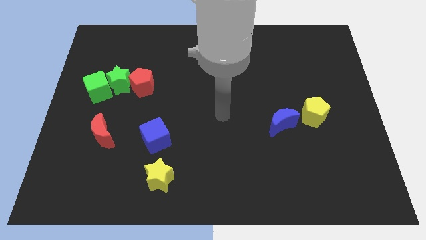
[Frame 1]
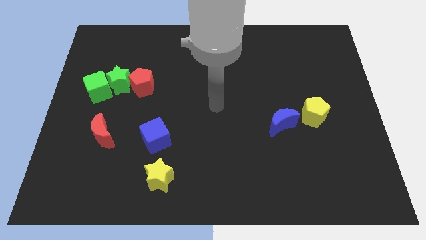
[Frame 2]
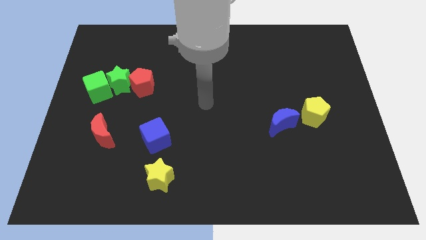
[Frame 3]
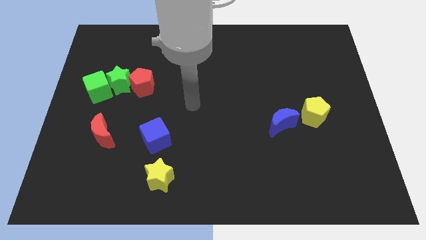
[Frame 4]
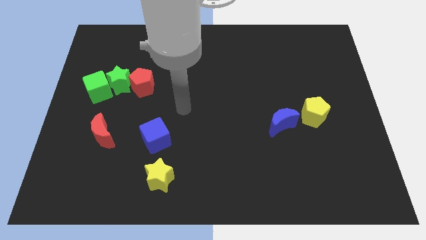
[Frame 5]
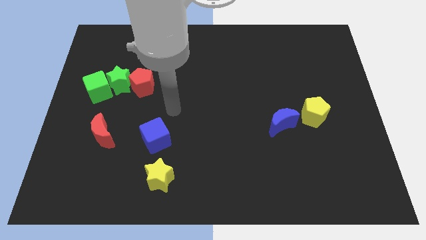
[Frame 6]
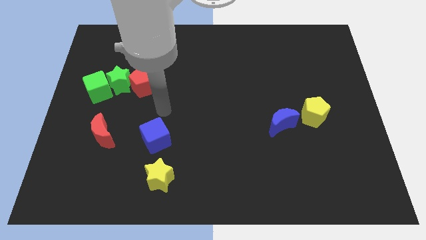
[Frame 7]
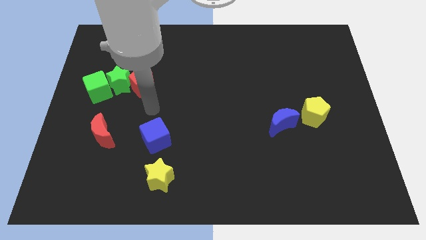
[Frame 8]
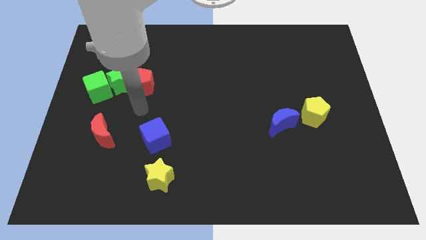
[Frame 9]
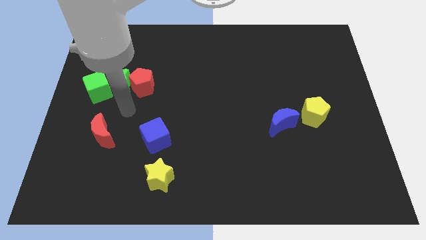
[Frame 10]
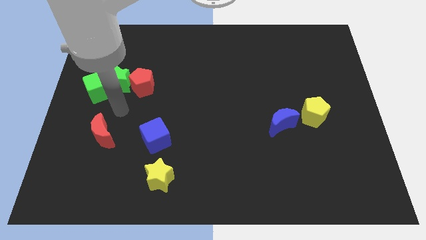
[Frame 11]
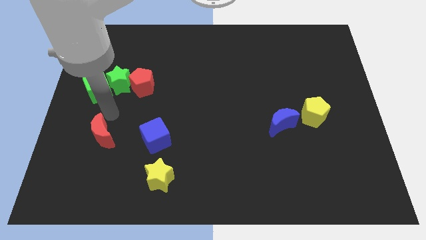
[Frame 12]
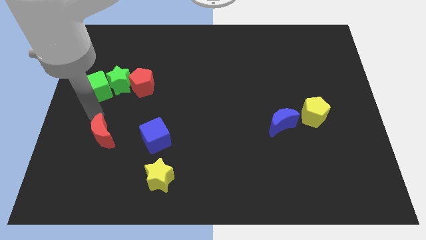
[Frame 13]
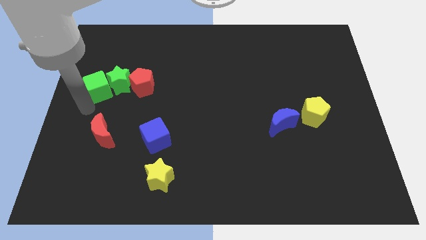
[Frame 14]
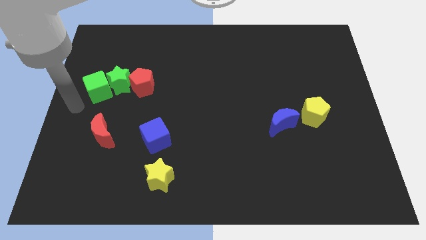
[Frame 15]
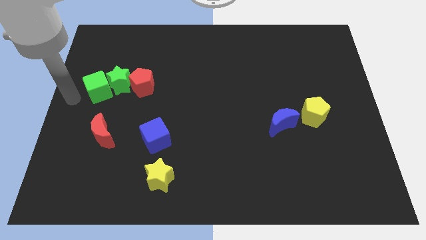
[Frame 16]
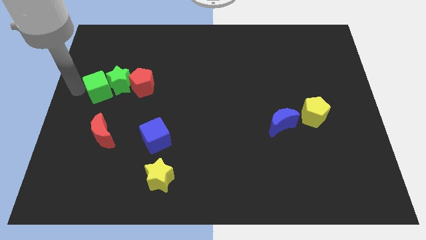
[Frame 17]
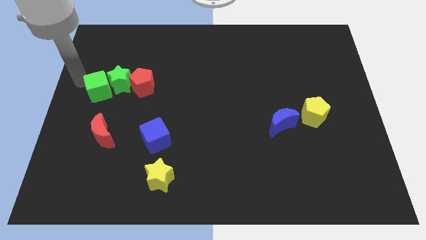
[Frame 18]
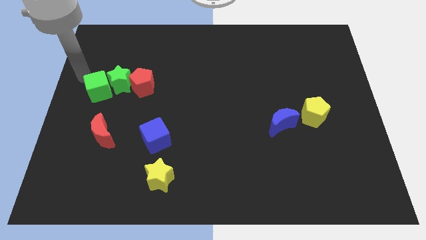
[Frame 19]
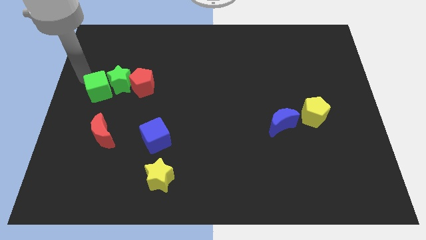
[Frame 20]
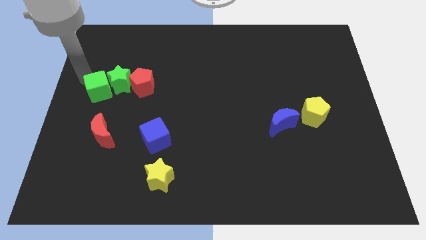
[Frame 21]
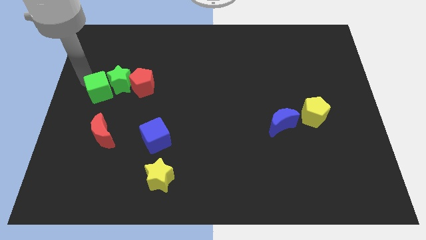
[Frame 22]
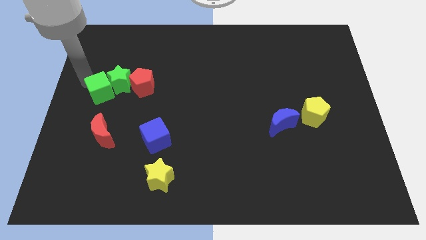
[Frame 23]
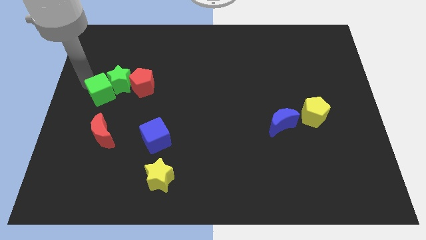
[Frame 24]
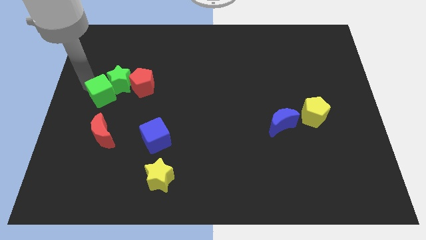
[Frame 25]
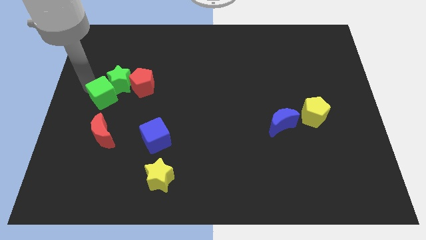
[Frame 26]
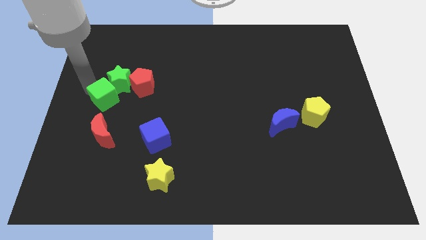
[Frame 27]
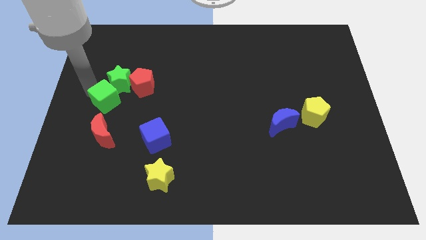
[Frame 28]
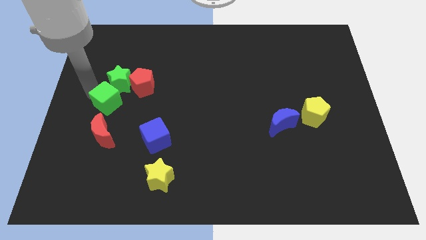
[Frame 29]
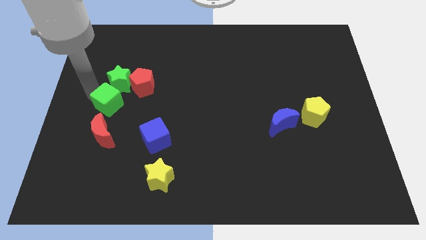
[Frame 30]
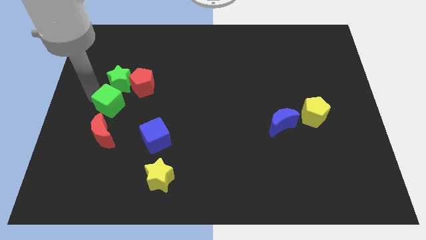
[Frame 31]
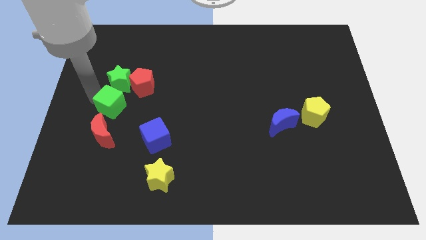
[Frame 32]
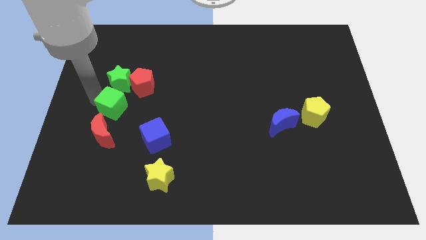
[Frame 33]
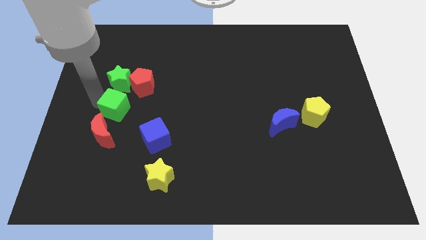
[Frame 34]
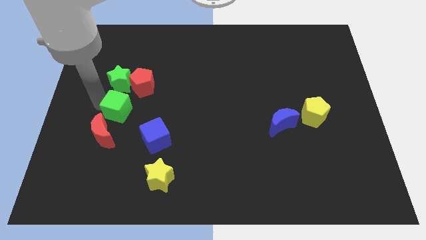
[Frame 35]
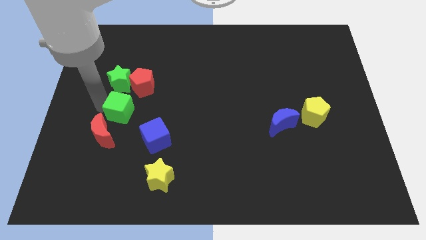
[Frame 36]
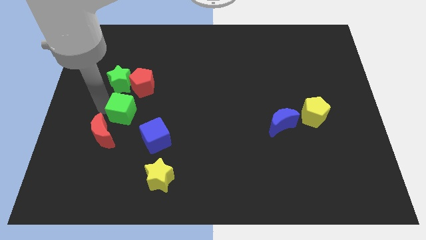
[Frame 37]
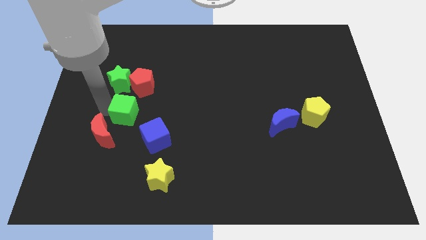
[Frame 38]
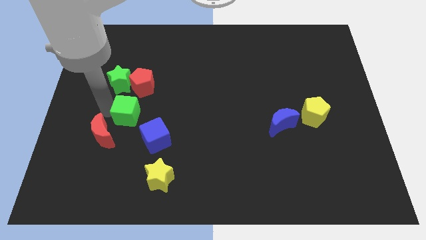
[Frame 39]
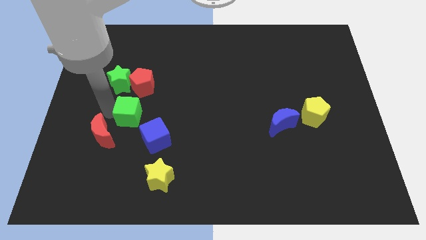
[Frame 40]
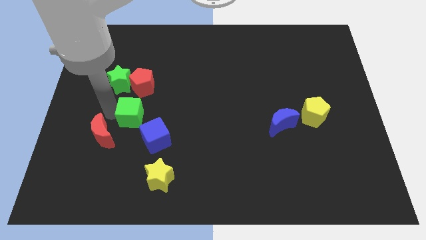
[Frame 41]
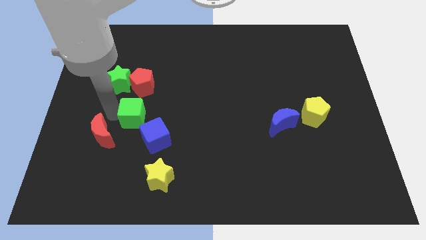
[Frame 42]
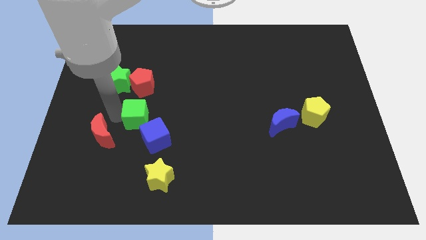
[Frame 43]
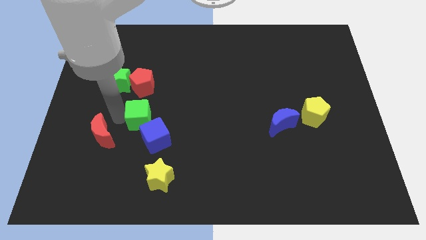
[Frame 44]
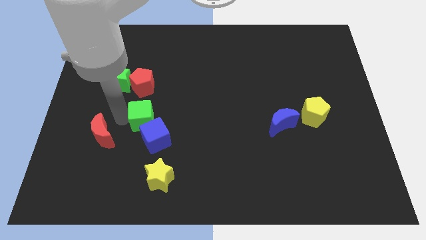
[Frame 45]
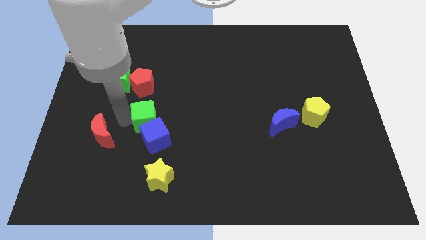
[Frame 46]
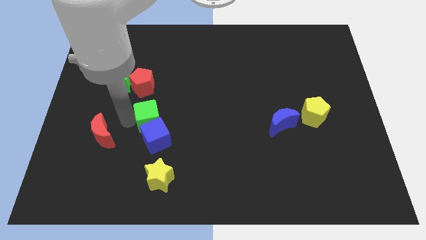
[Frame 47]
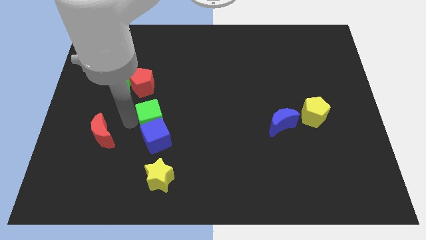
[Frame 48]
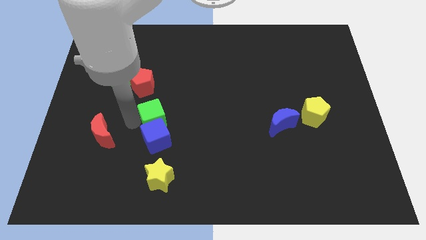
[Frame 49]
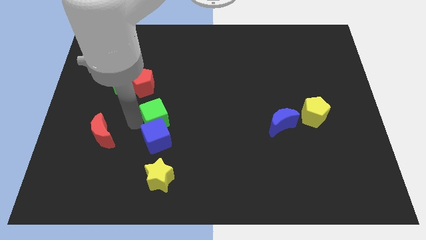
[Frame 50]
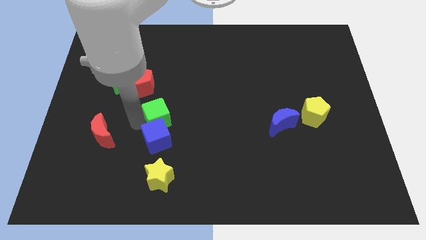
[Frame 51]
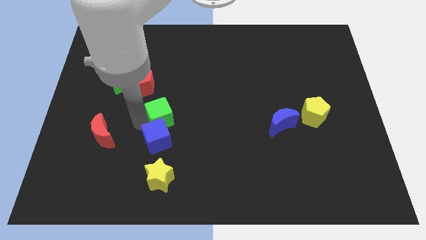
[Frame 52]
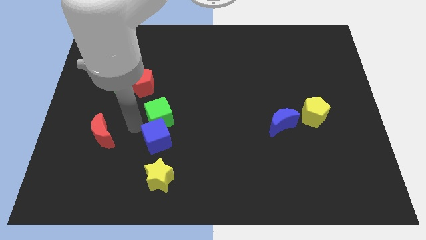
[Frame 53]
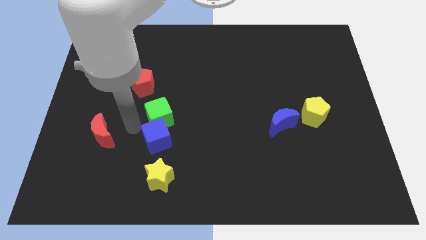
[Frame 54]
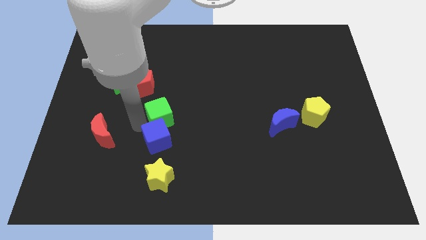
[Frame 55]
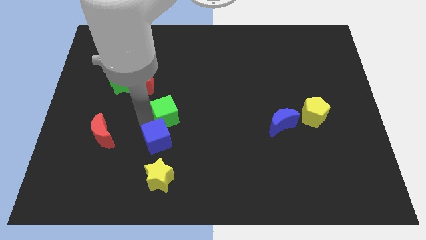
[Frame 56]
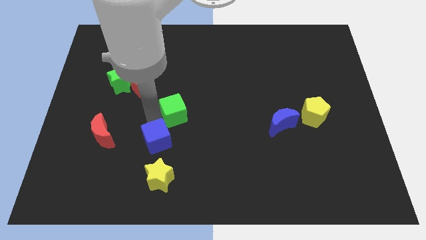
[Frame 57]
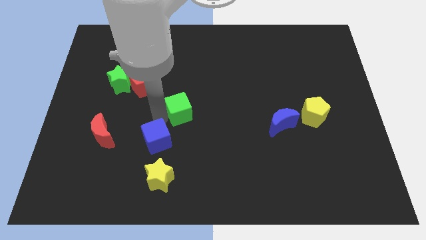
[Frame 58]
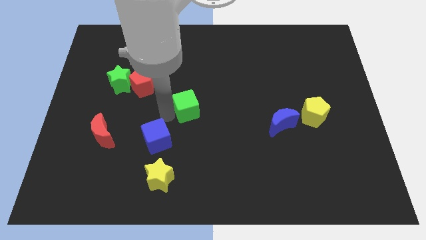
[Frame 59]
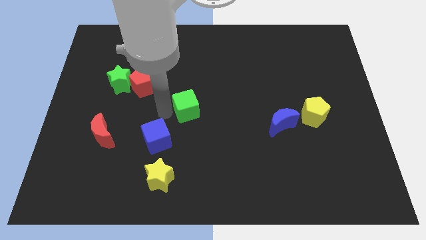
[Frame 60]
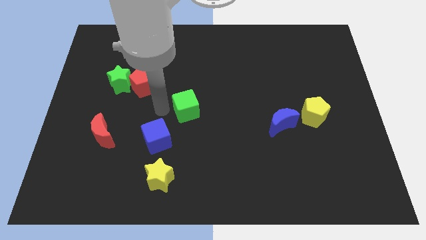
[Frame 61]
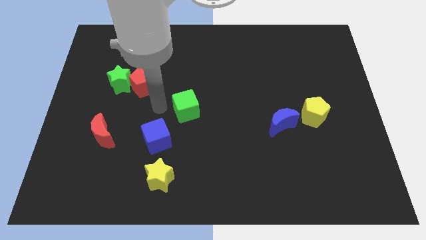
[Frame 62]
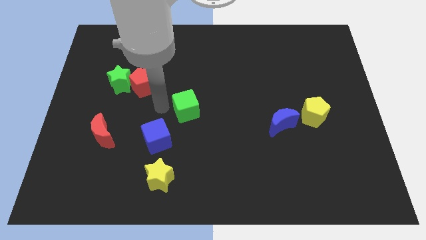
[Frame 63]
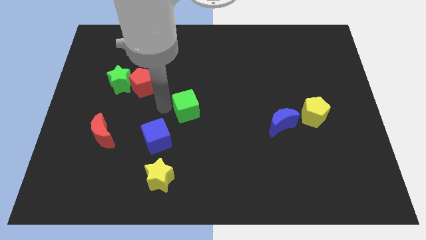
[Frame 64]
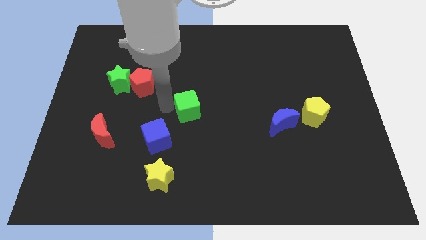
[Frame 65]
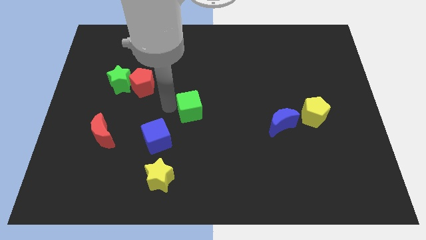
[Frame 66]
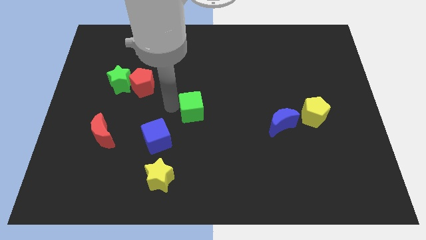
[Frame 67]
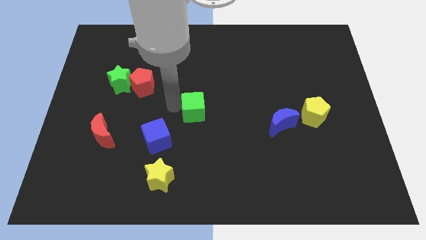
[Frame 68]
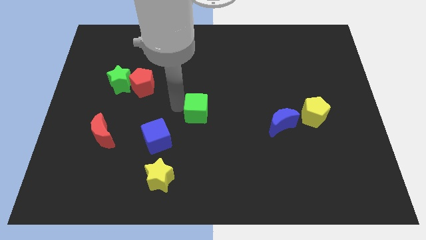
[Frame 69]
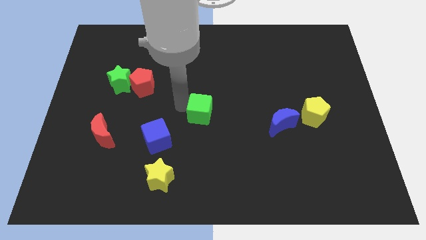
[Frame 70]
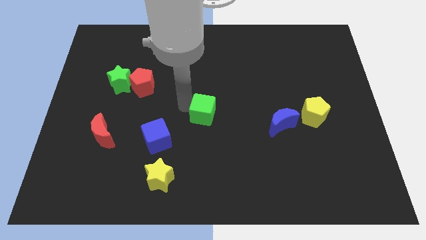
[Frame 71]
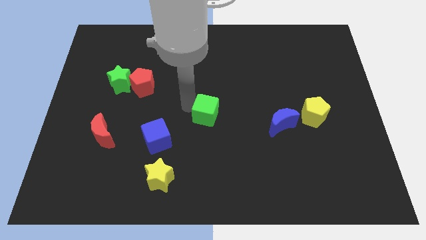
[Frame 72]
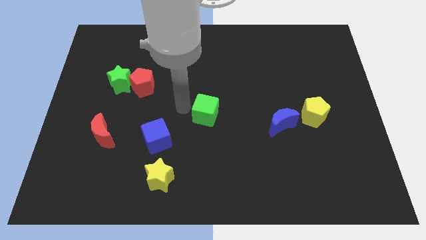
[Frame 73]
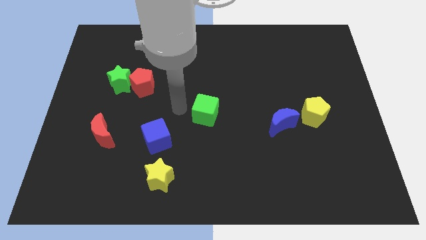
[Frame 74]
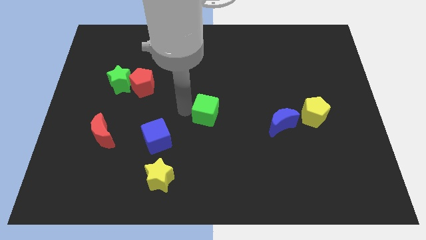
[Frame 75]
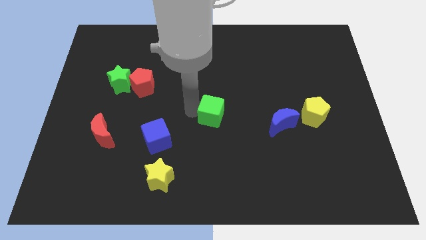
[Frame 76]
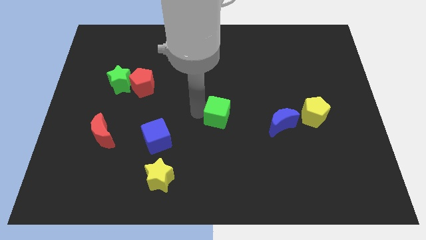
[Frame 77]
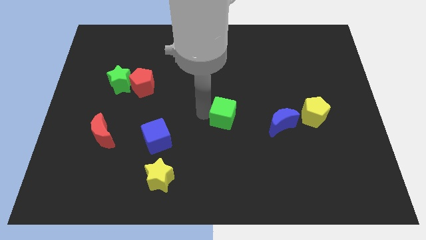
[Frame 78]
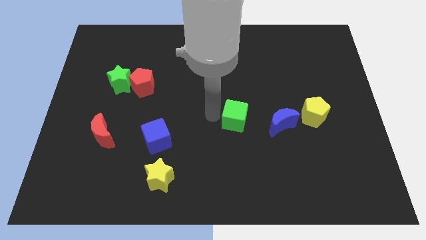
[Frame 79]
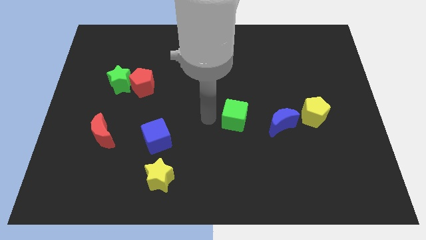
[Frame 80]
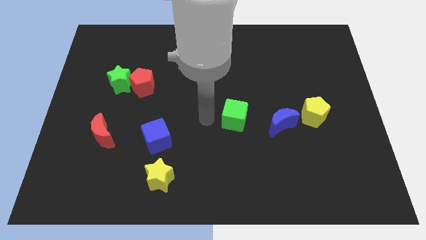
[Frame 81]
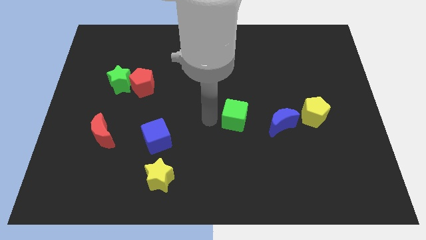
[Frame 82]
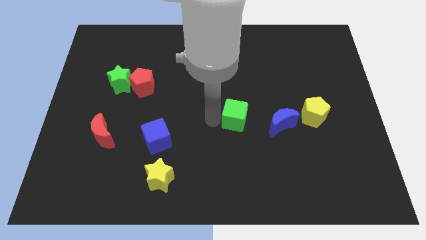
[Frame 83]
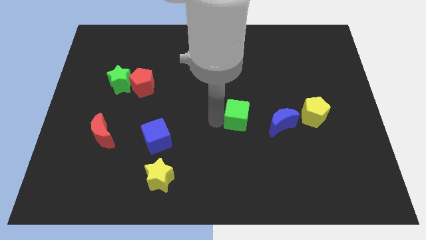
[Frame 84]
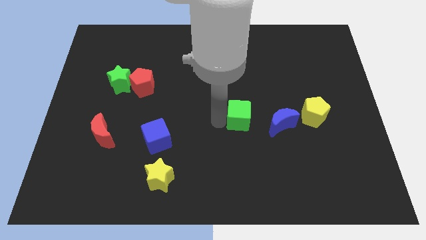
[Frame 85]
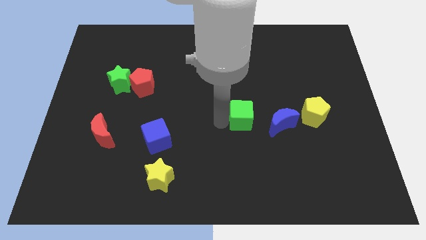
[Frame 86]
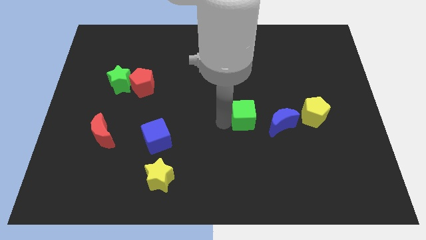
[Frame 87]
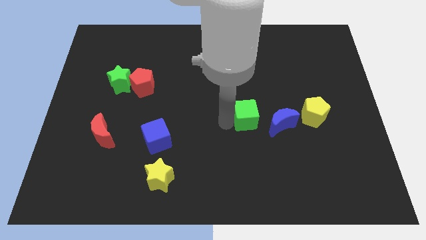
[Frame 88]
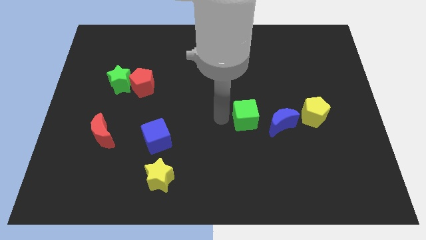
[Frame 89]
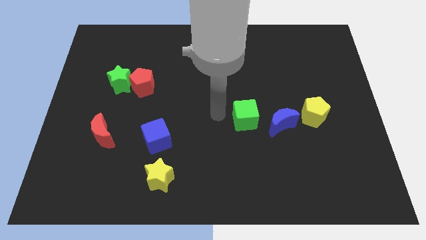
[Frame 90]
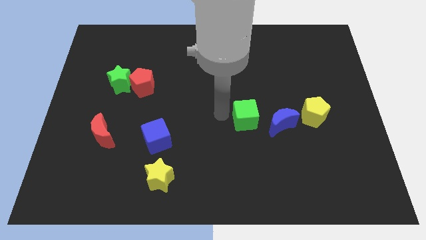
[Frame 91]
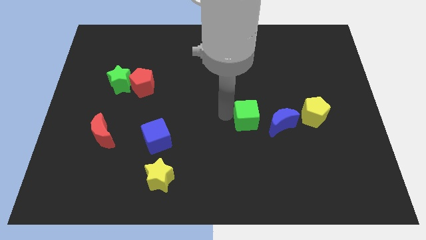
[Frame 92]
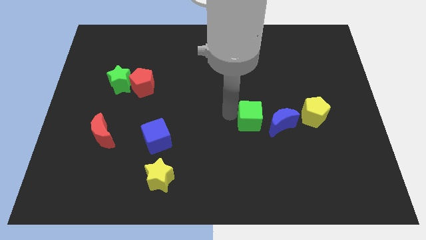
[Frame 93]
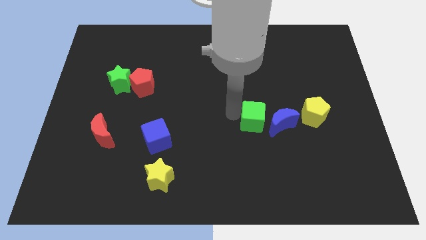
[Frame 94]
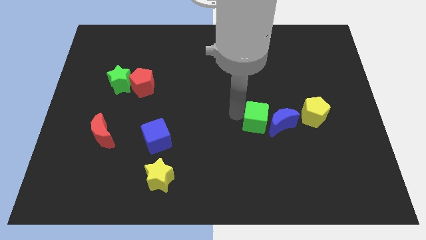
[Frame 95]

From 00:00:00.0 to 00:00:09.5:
move the green cube next to the blue moon
